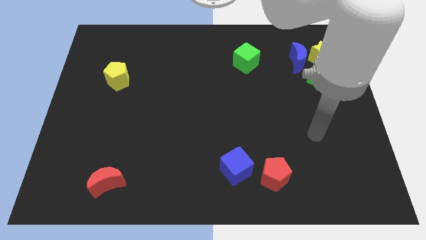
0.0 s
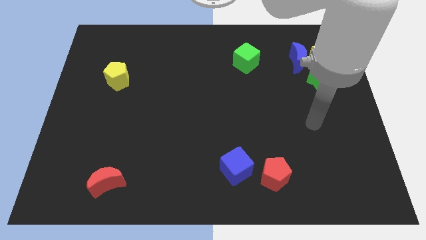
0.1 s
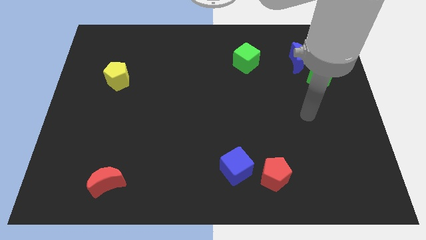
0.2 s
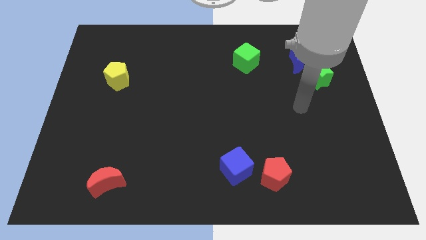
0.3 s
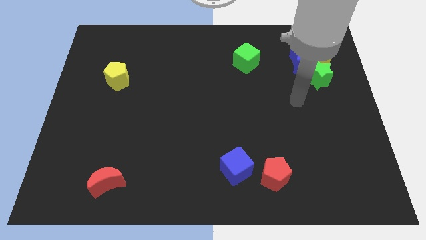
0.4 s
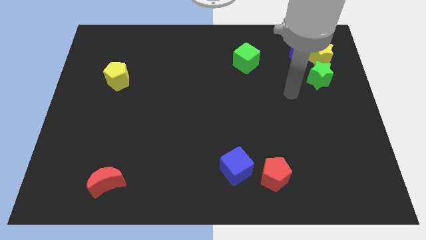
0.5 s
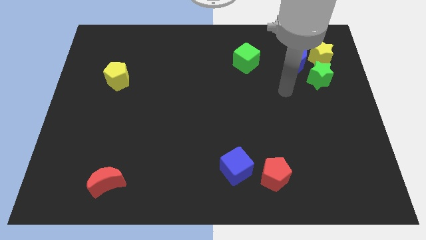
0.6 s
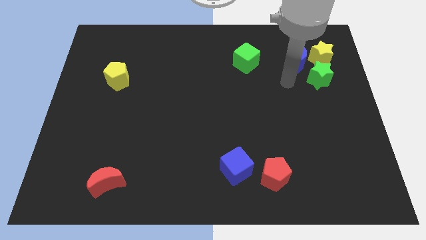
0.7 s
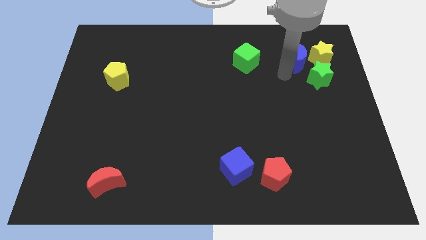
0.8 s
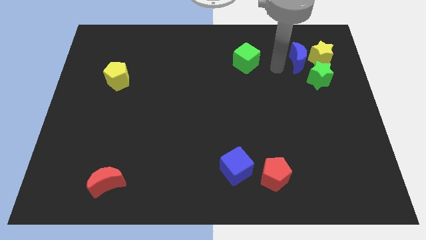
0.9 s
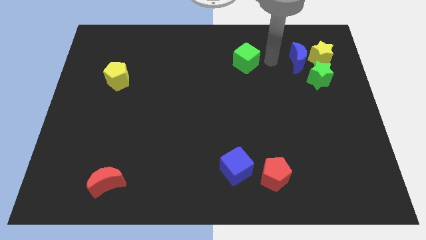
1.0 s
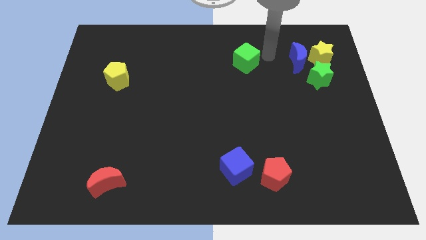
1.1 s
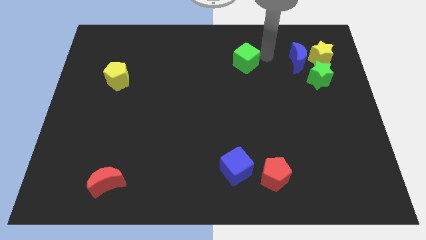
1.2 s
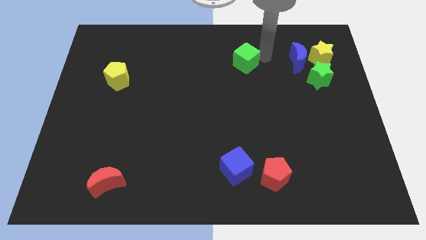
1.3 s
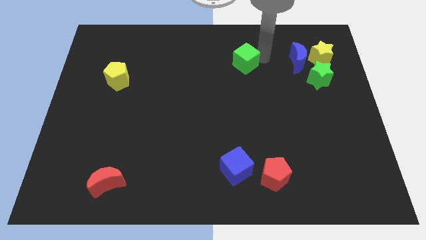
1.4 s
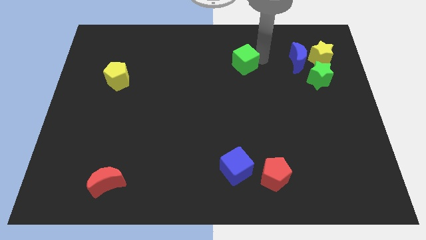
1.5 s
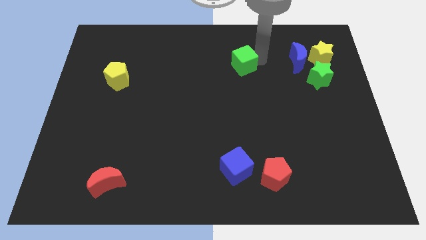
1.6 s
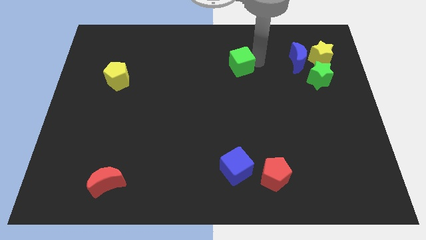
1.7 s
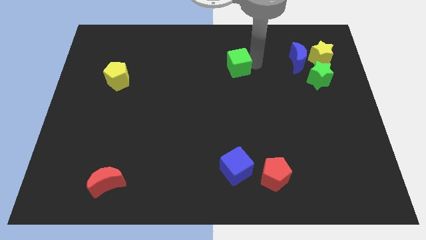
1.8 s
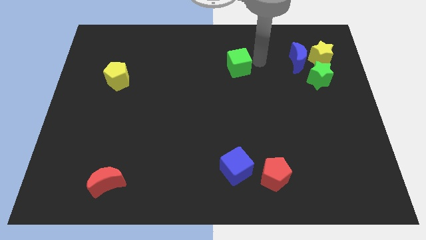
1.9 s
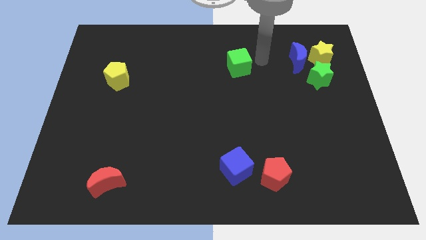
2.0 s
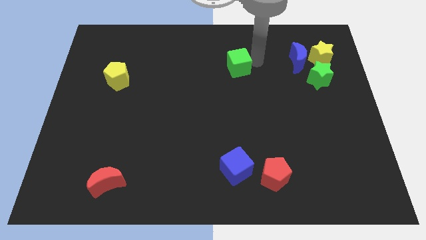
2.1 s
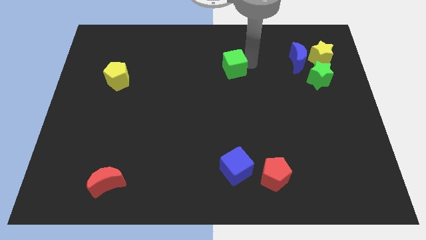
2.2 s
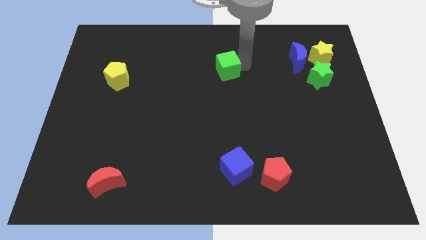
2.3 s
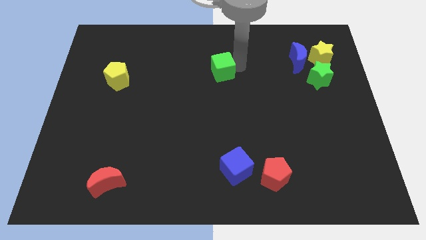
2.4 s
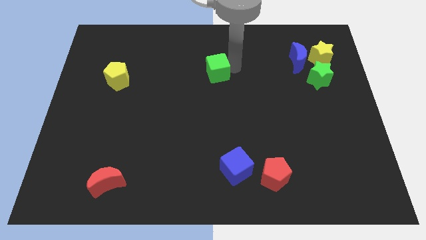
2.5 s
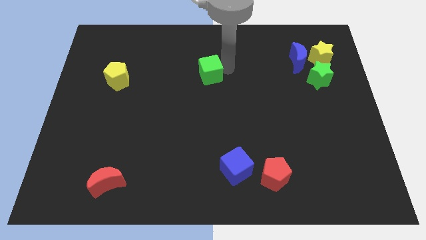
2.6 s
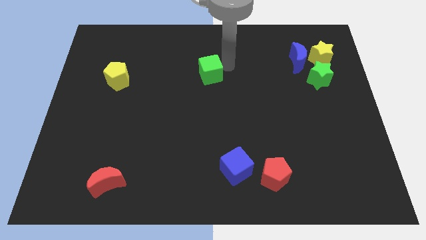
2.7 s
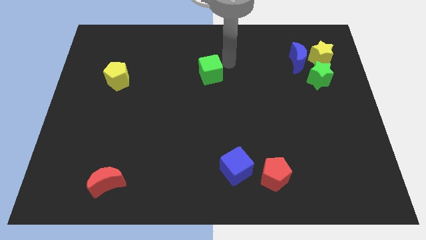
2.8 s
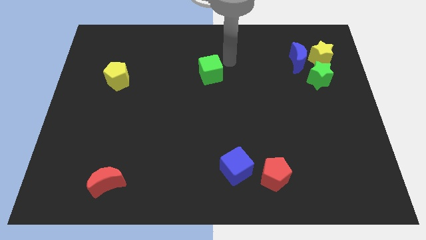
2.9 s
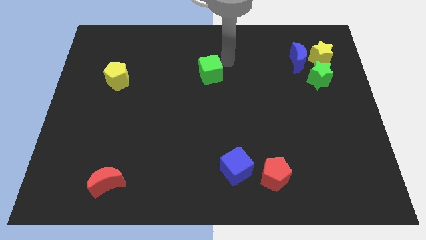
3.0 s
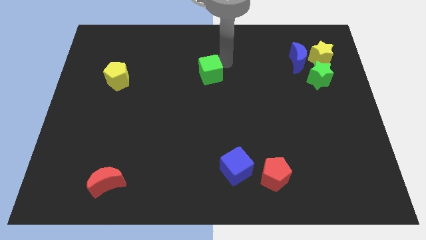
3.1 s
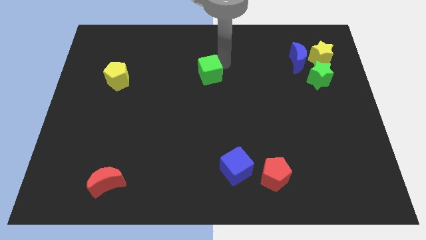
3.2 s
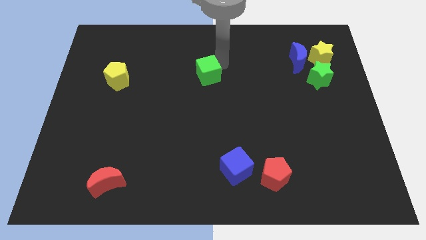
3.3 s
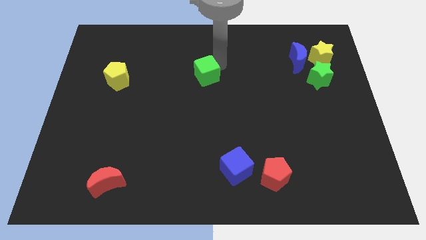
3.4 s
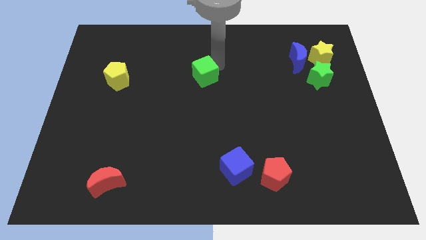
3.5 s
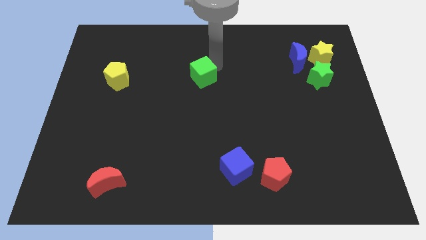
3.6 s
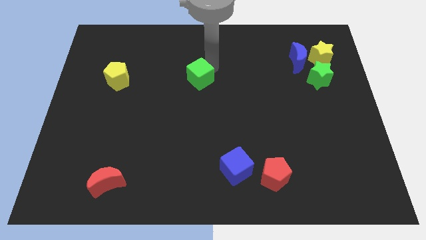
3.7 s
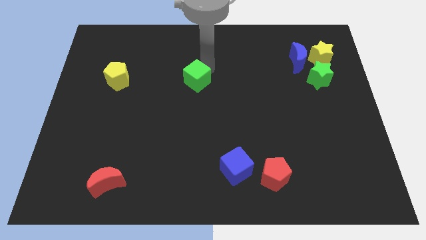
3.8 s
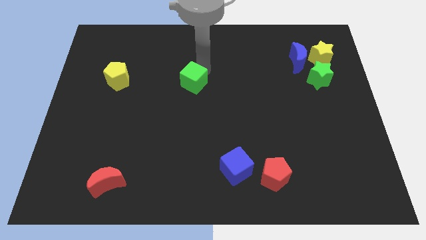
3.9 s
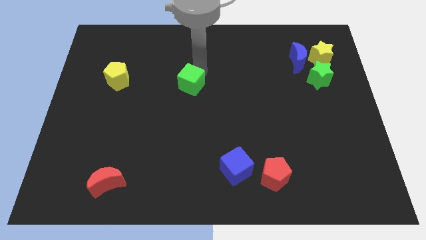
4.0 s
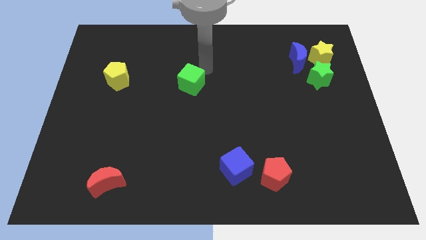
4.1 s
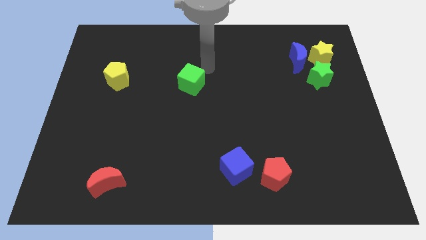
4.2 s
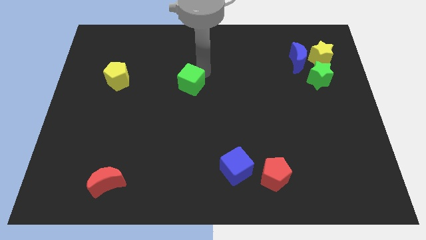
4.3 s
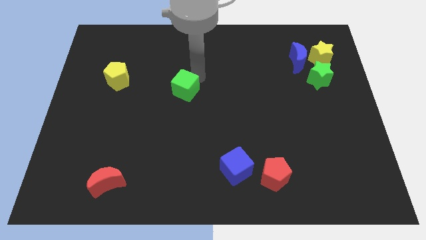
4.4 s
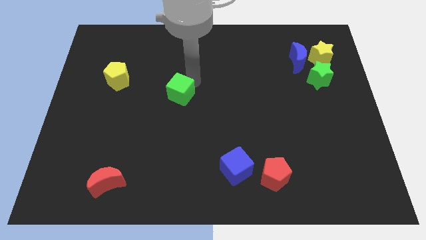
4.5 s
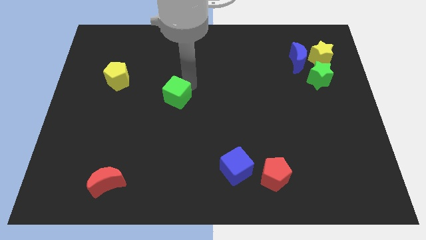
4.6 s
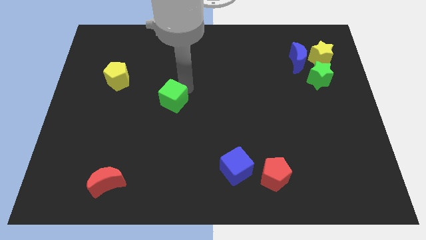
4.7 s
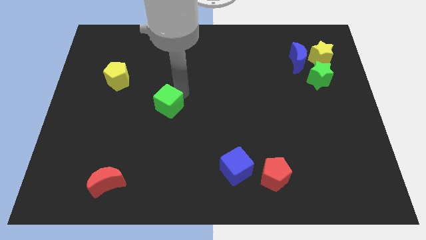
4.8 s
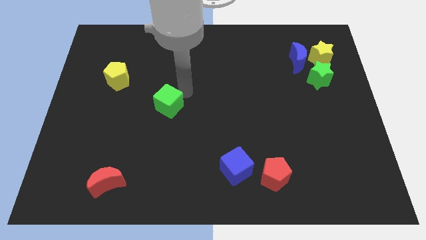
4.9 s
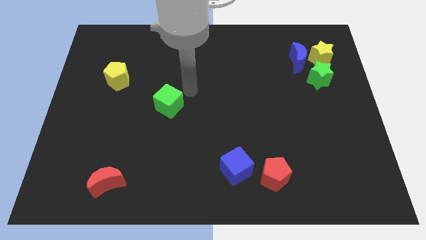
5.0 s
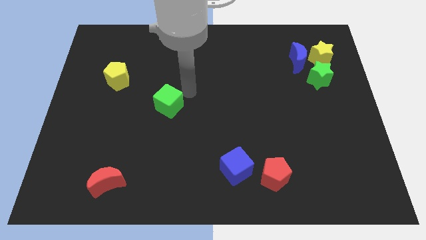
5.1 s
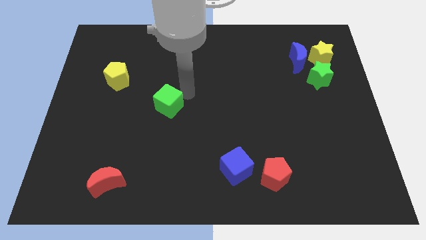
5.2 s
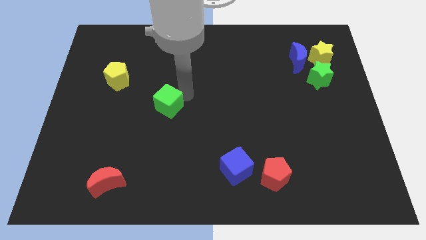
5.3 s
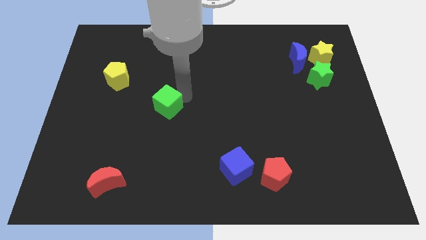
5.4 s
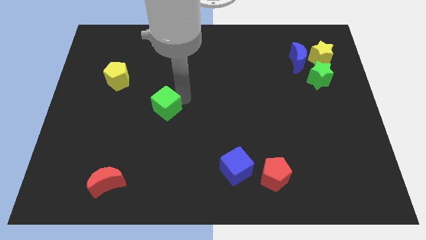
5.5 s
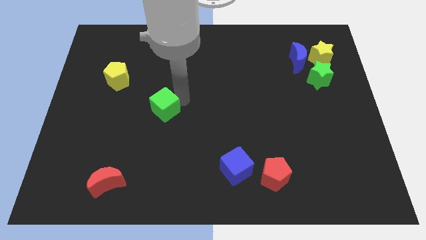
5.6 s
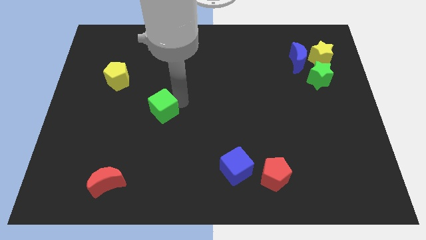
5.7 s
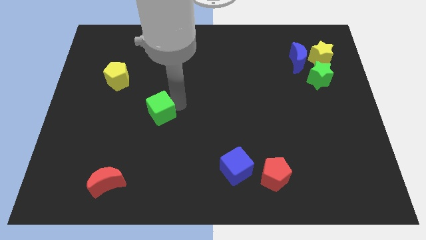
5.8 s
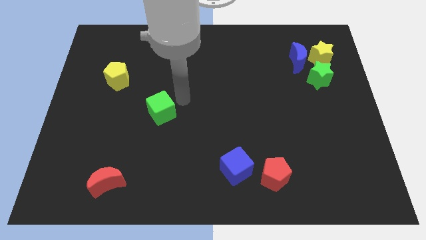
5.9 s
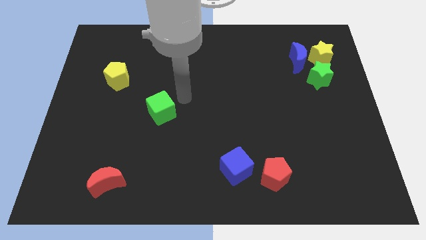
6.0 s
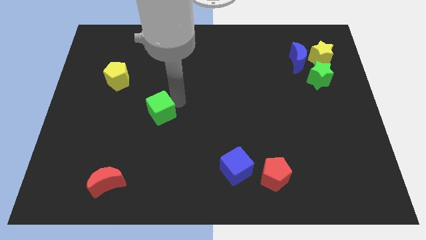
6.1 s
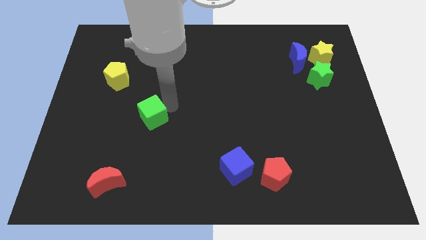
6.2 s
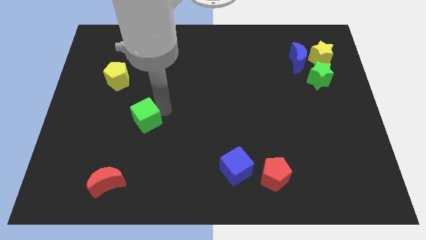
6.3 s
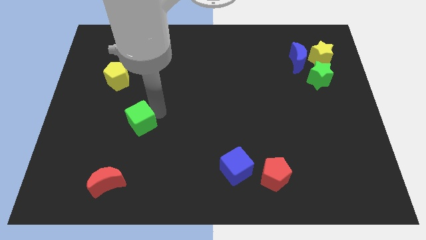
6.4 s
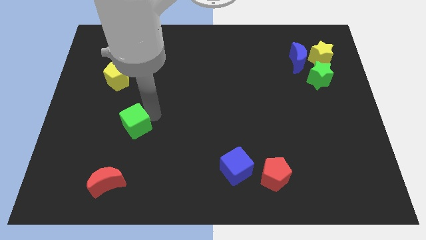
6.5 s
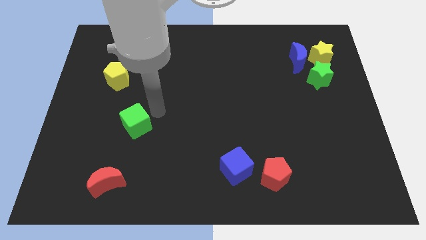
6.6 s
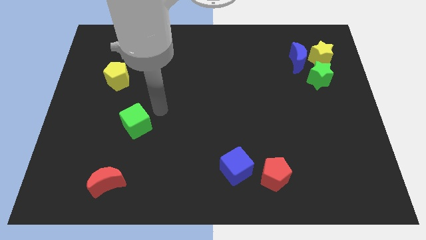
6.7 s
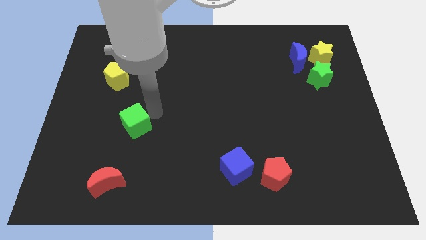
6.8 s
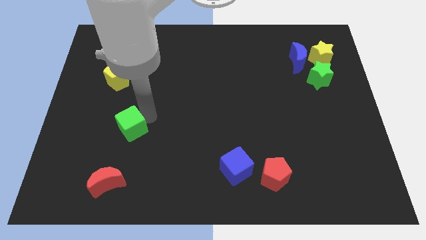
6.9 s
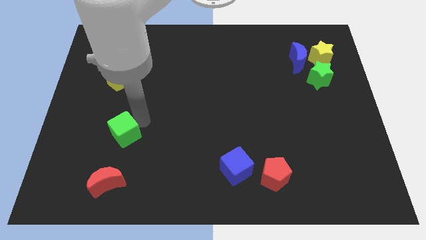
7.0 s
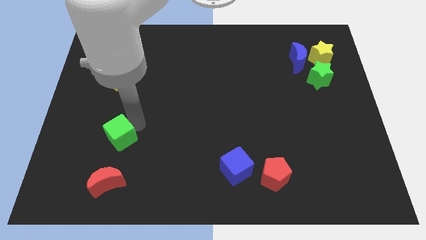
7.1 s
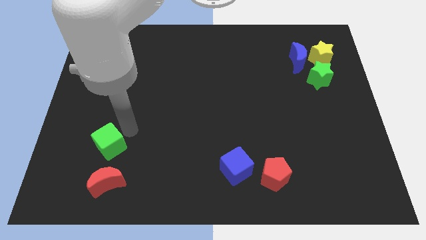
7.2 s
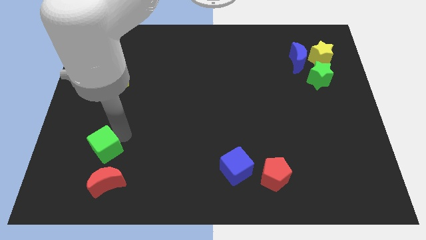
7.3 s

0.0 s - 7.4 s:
put the green cube diagonally up and to the left of the red moon
